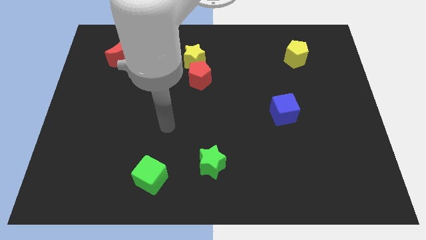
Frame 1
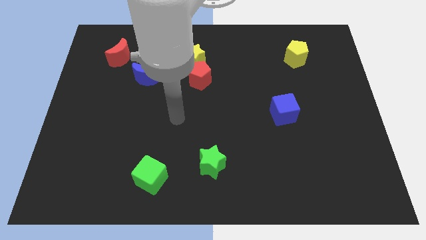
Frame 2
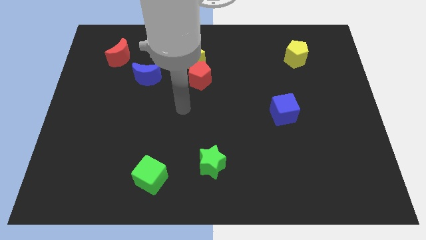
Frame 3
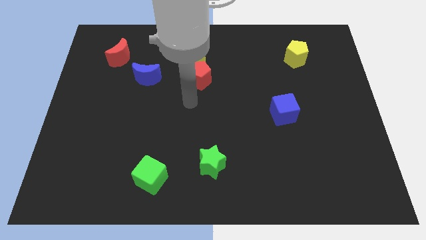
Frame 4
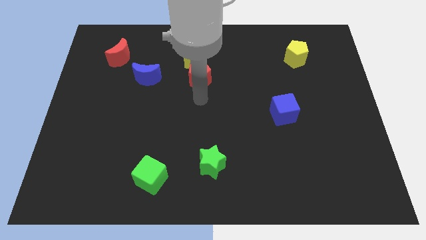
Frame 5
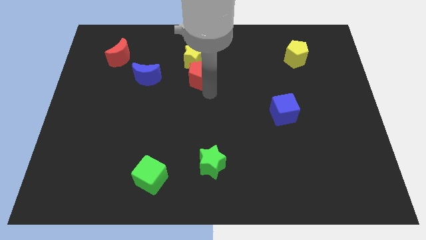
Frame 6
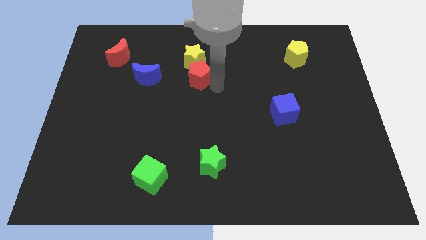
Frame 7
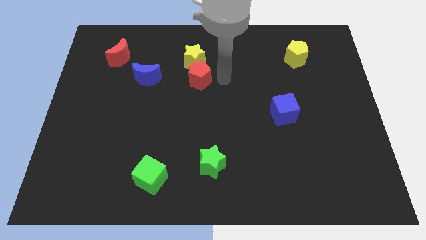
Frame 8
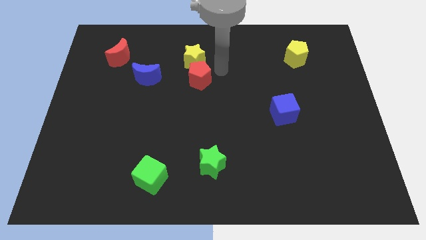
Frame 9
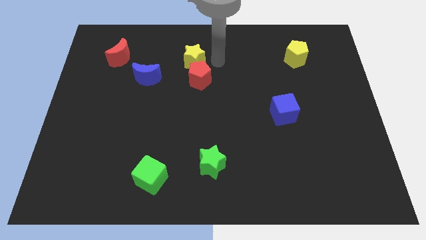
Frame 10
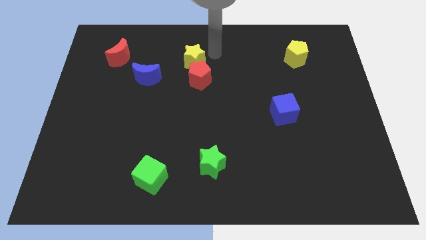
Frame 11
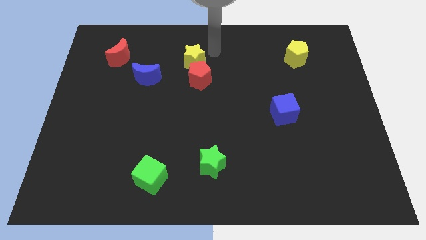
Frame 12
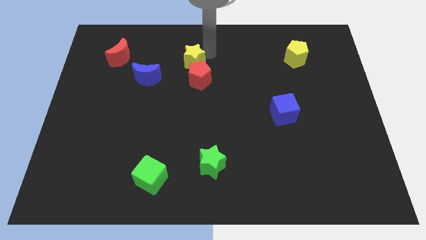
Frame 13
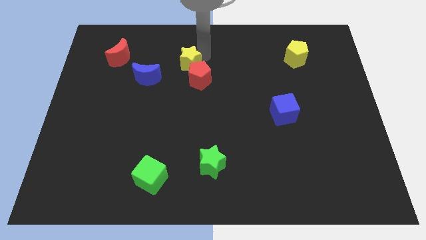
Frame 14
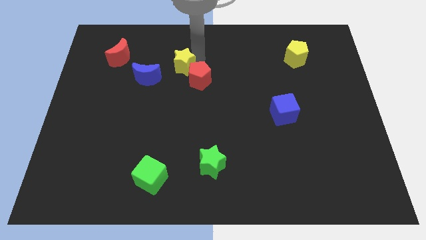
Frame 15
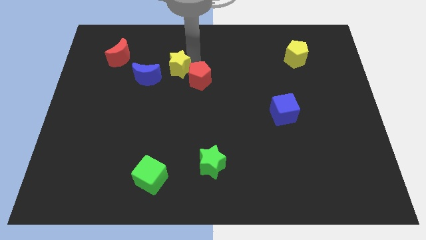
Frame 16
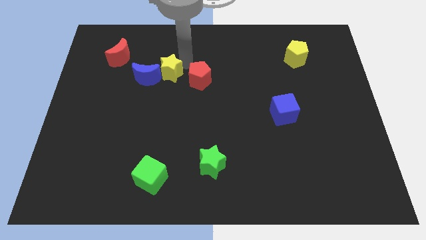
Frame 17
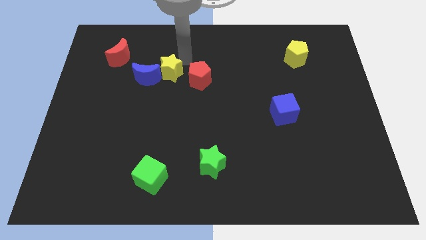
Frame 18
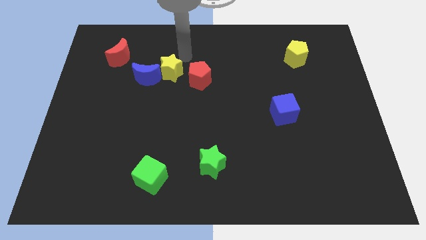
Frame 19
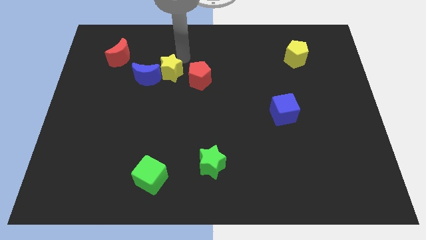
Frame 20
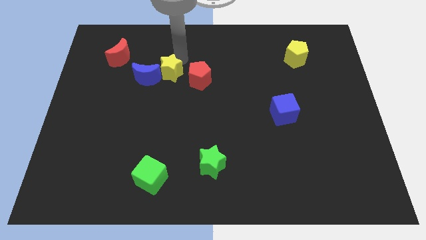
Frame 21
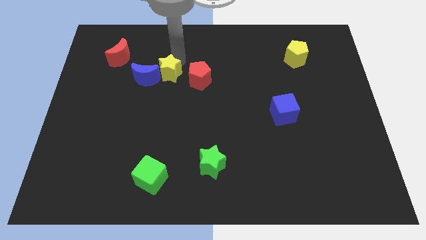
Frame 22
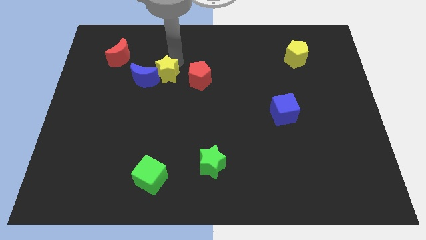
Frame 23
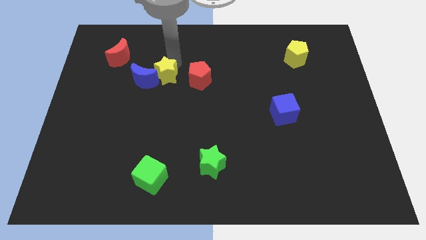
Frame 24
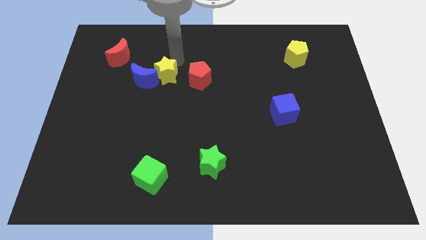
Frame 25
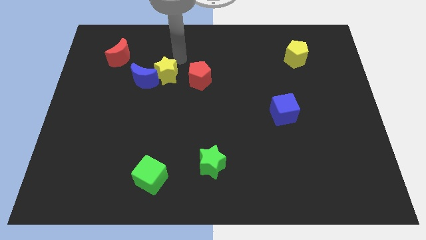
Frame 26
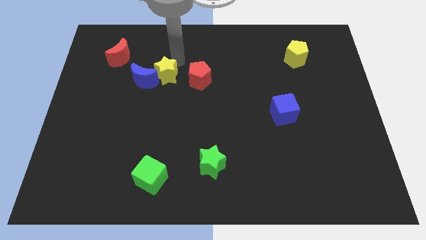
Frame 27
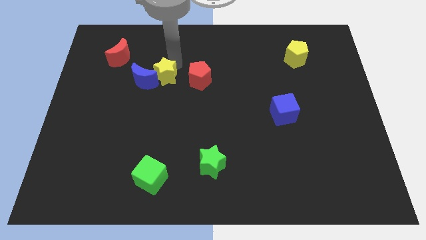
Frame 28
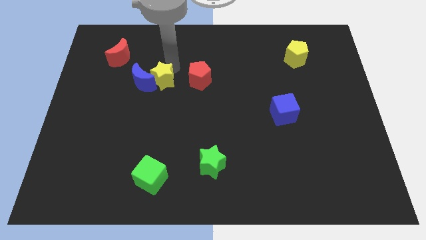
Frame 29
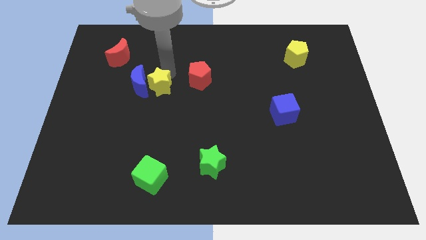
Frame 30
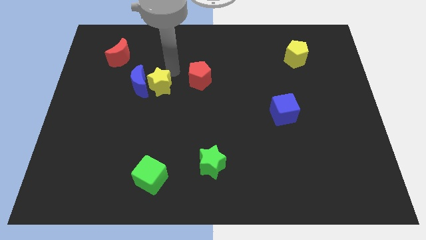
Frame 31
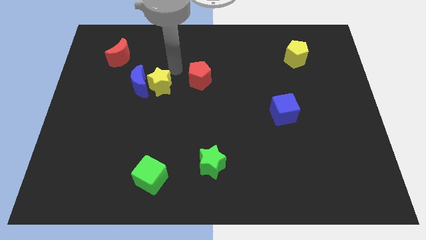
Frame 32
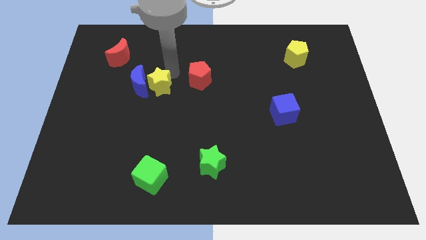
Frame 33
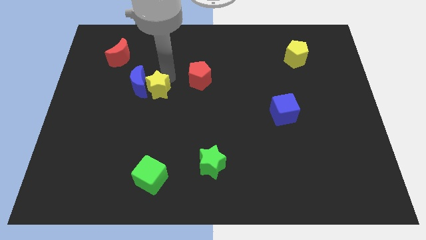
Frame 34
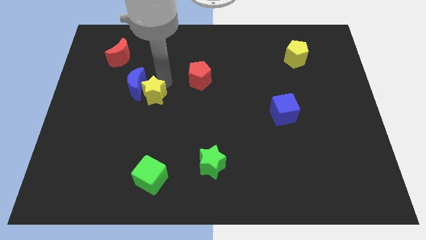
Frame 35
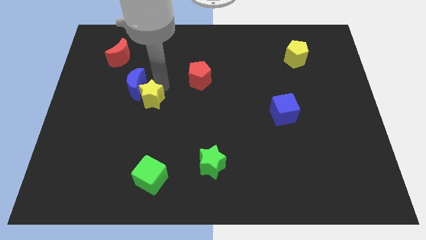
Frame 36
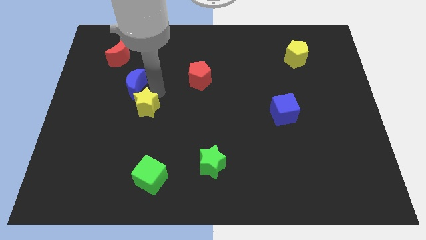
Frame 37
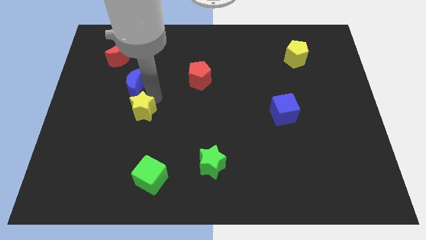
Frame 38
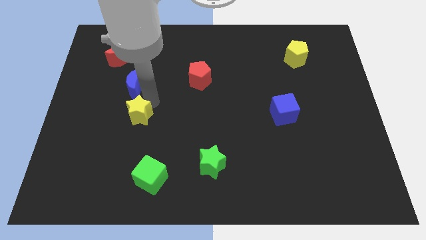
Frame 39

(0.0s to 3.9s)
push the yellow star downwards and left diagonally

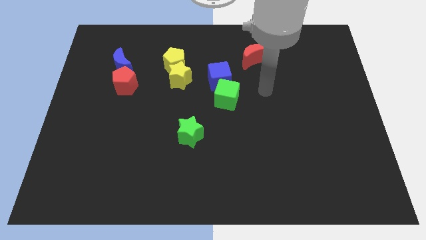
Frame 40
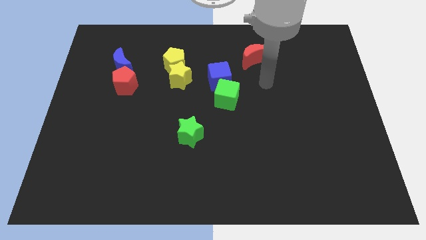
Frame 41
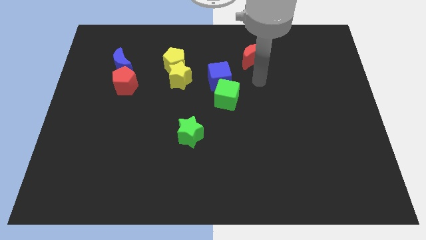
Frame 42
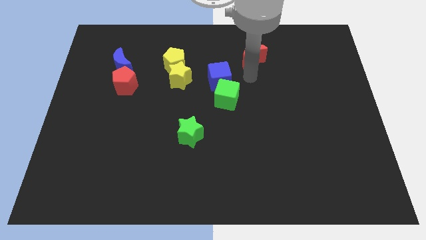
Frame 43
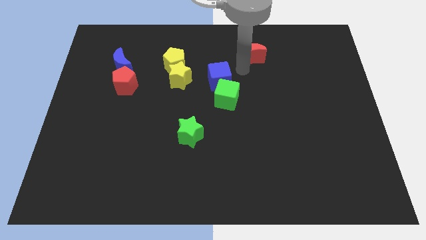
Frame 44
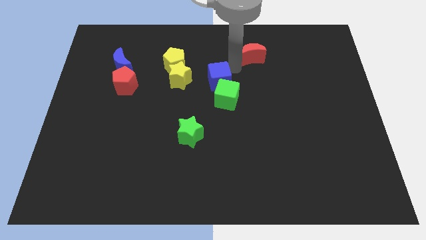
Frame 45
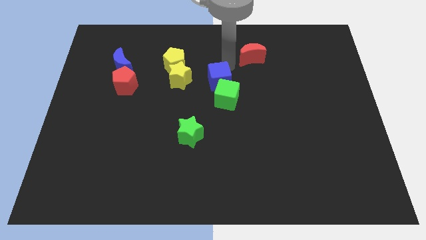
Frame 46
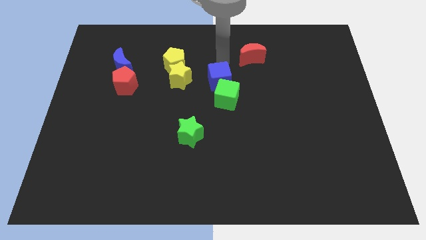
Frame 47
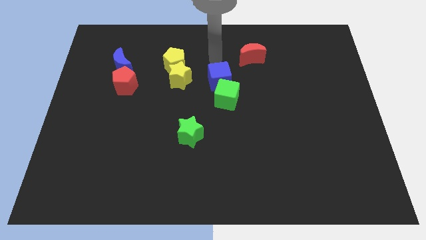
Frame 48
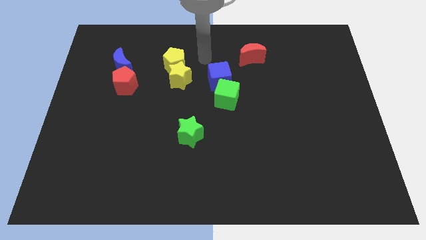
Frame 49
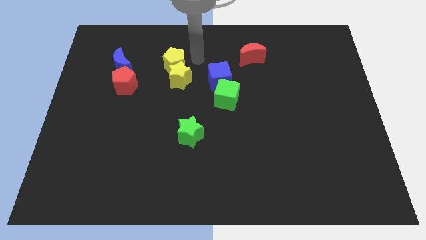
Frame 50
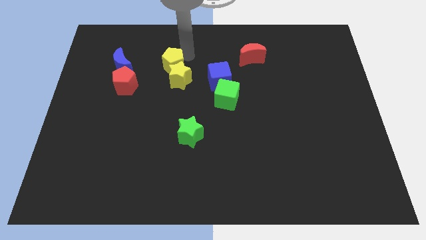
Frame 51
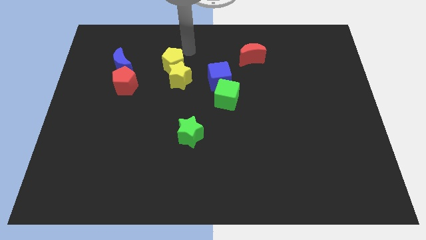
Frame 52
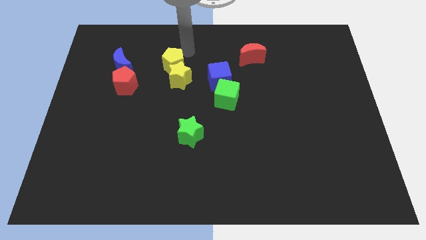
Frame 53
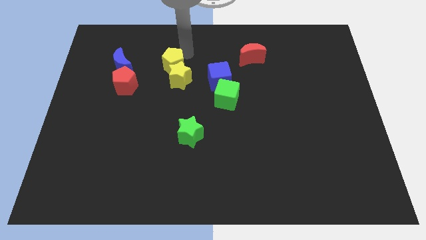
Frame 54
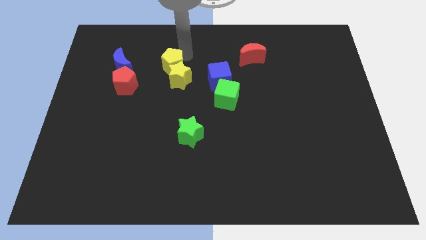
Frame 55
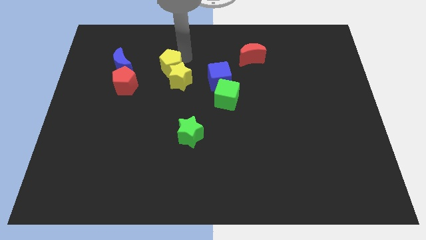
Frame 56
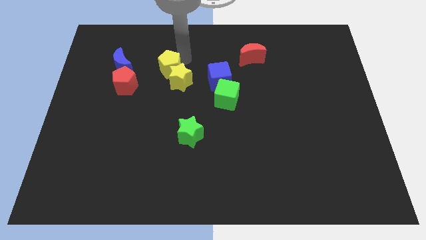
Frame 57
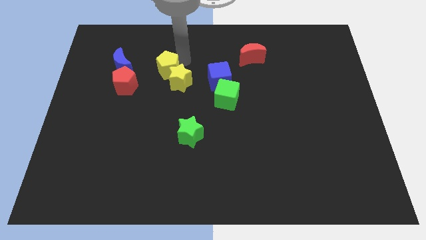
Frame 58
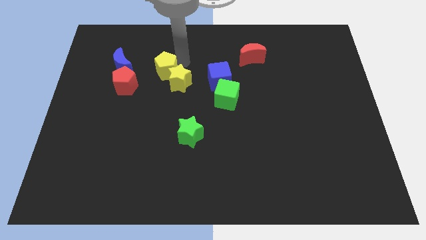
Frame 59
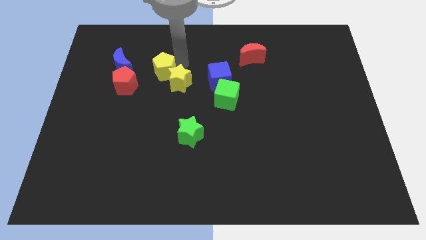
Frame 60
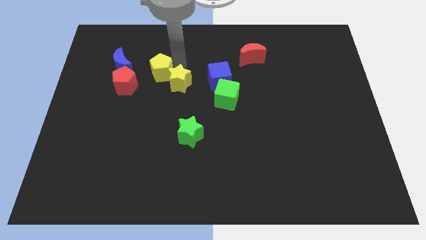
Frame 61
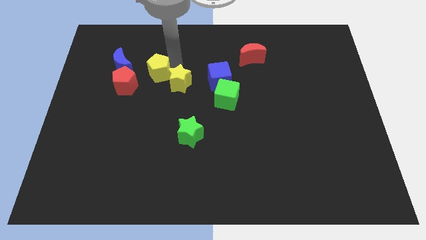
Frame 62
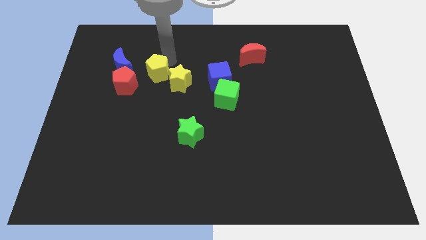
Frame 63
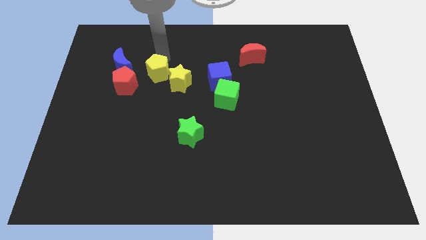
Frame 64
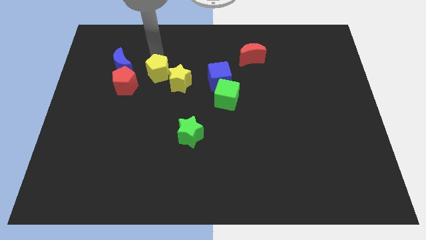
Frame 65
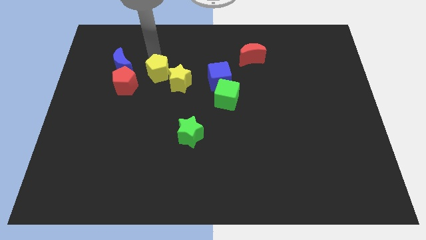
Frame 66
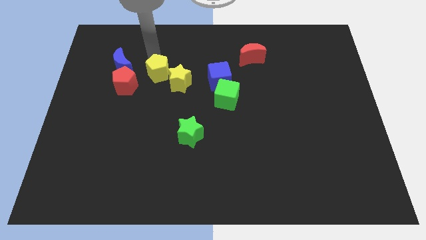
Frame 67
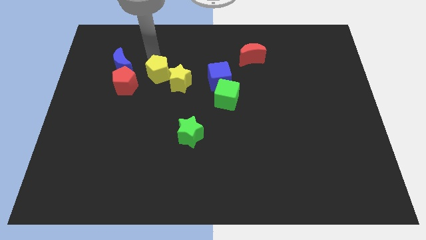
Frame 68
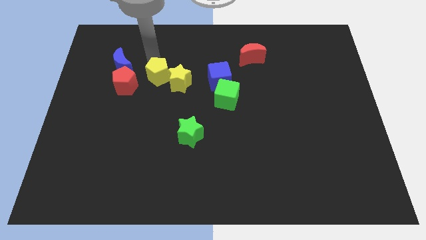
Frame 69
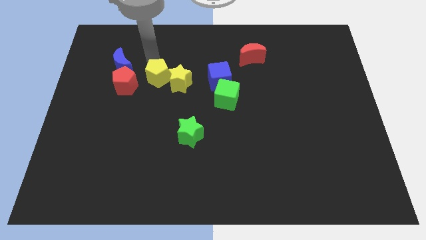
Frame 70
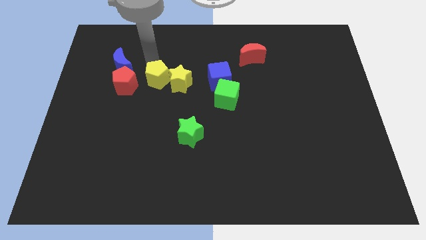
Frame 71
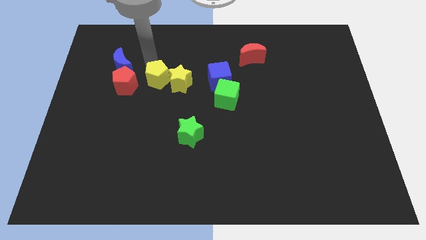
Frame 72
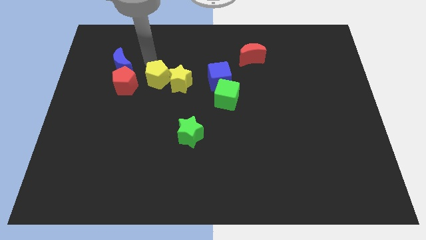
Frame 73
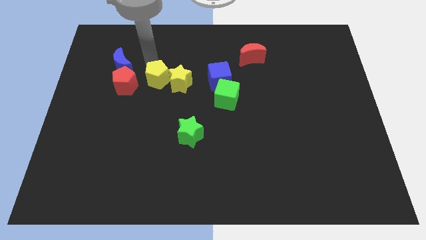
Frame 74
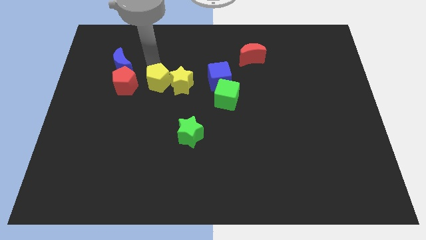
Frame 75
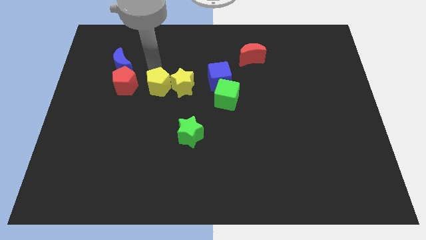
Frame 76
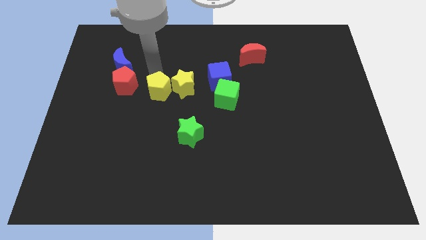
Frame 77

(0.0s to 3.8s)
slightly slide the yellow pentagon downwards
